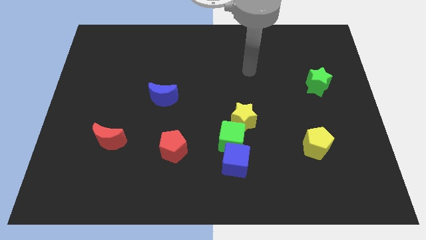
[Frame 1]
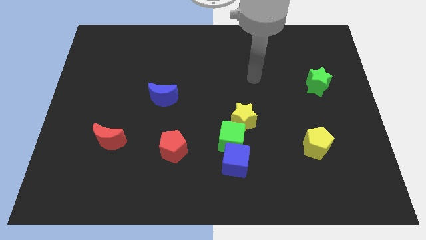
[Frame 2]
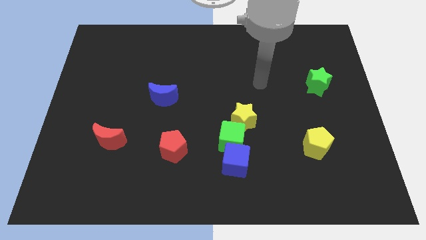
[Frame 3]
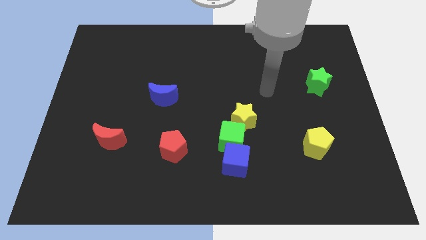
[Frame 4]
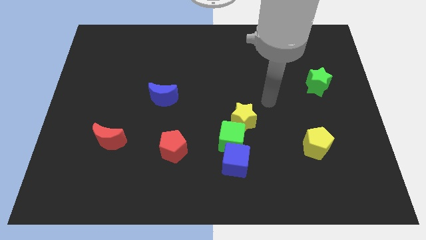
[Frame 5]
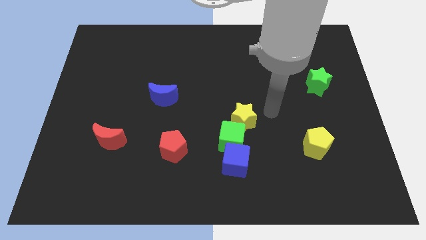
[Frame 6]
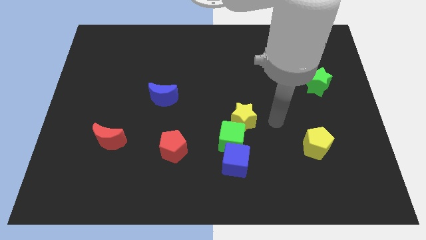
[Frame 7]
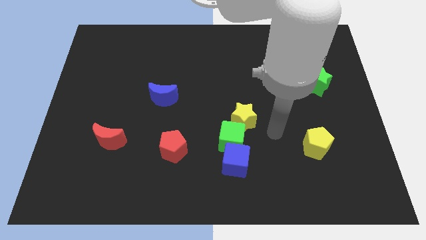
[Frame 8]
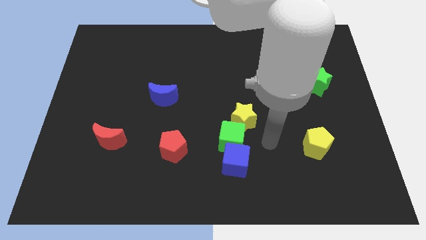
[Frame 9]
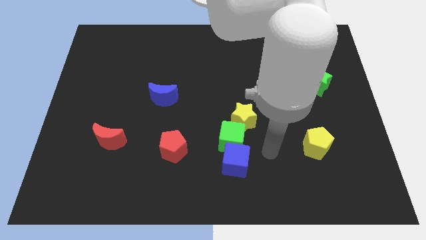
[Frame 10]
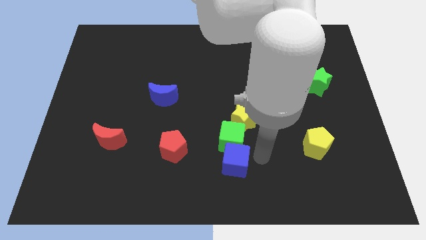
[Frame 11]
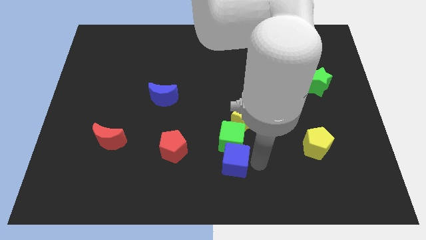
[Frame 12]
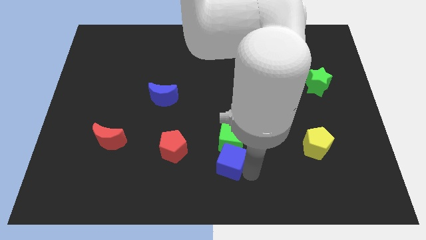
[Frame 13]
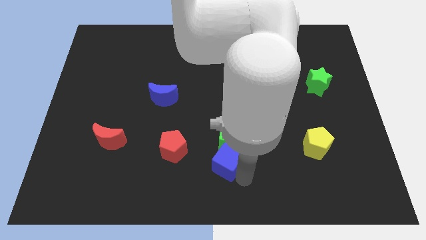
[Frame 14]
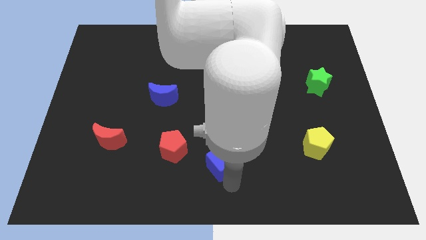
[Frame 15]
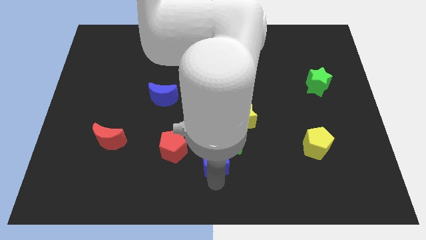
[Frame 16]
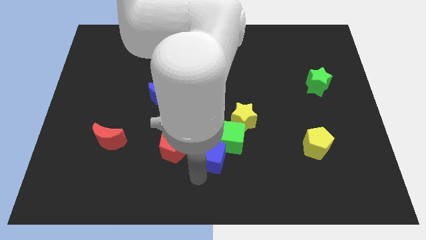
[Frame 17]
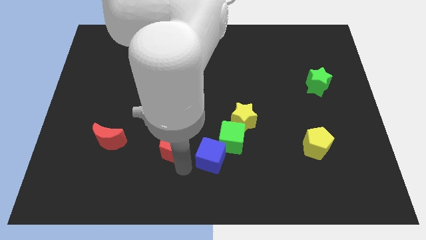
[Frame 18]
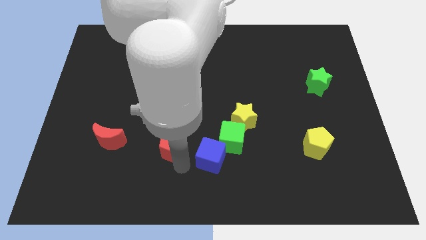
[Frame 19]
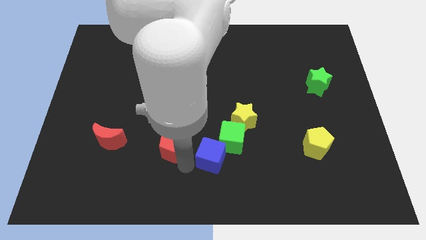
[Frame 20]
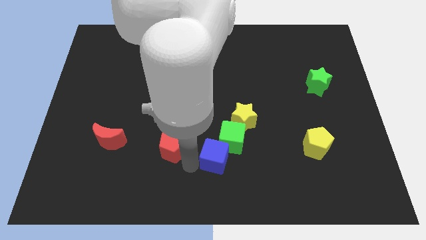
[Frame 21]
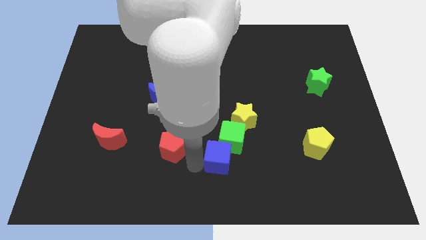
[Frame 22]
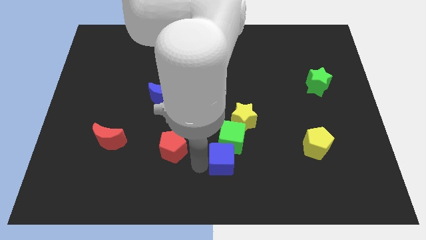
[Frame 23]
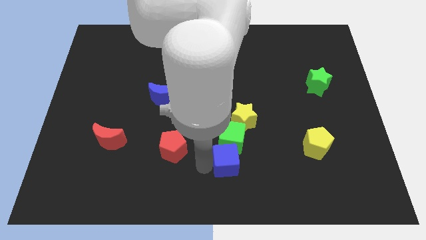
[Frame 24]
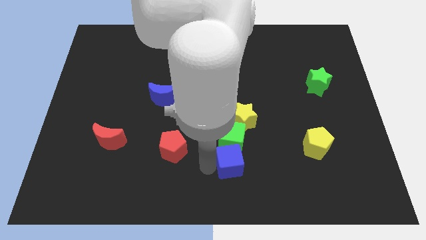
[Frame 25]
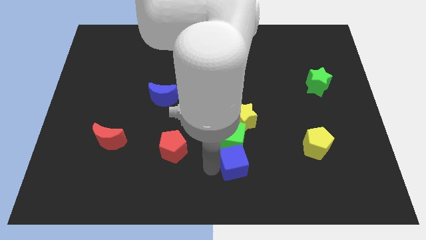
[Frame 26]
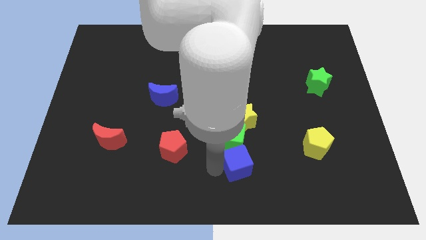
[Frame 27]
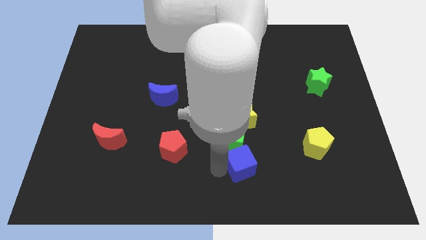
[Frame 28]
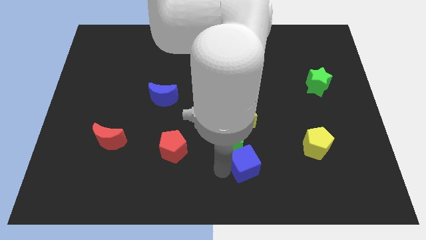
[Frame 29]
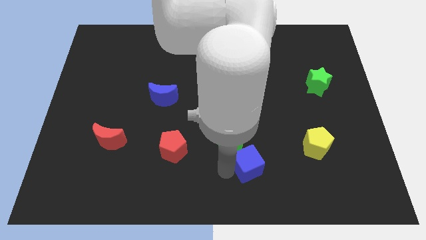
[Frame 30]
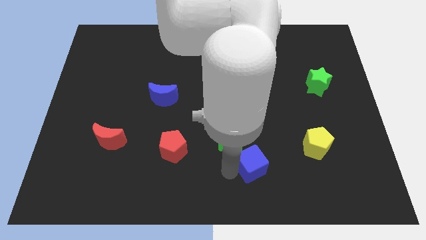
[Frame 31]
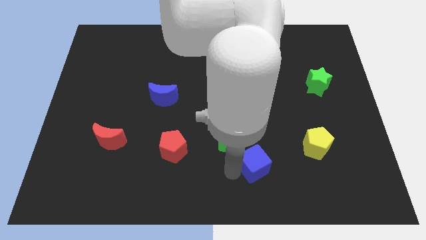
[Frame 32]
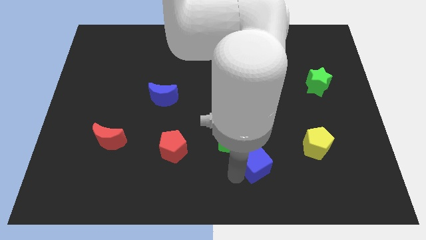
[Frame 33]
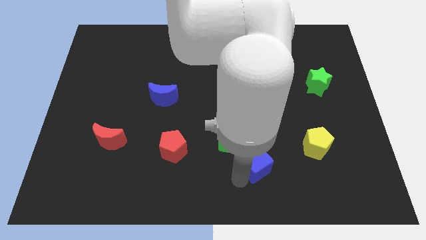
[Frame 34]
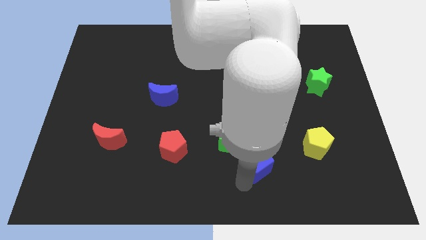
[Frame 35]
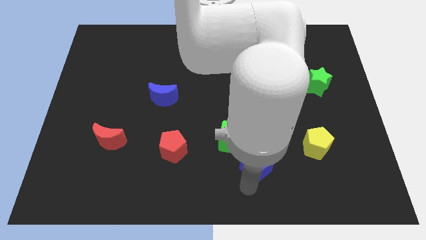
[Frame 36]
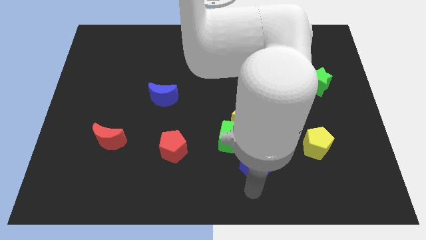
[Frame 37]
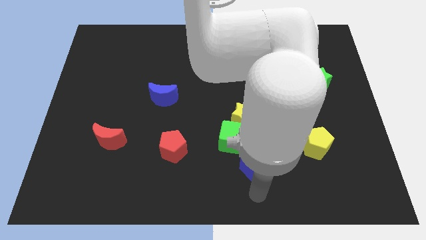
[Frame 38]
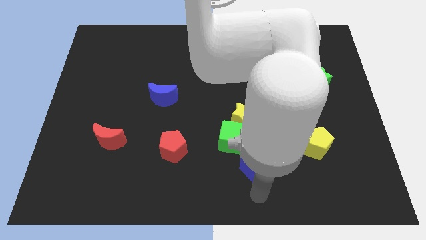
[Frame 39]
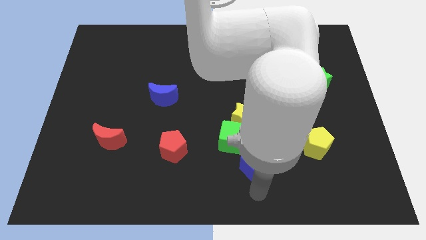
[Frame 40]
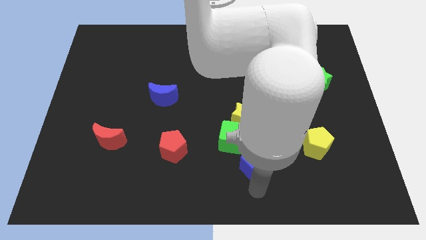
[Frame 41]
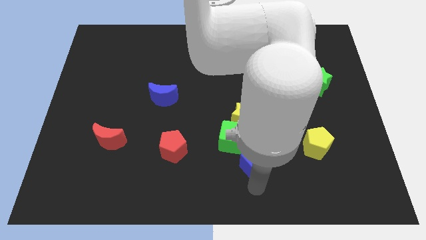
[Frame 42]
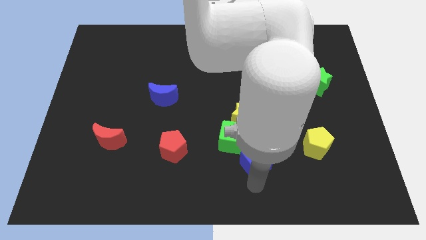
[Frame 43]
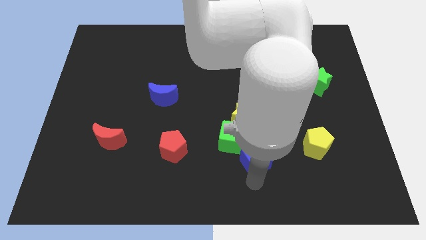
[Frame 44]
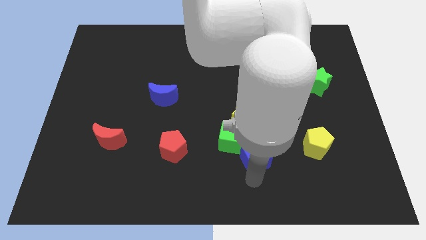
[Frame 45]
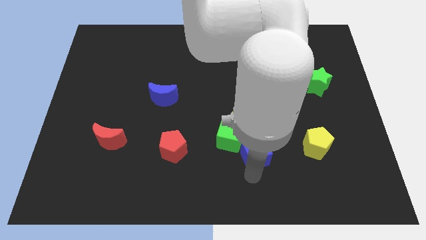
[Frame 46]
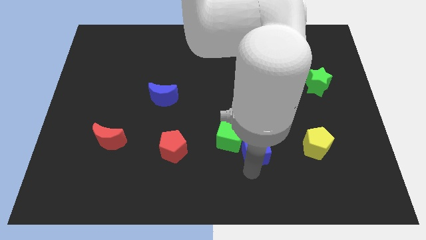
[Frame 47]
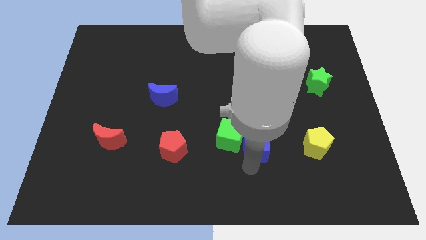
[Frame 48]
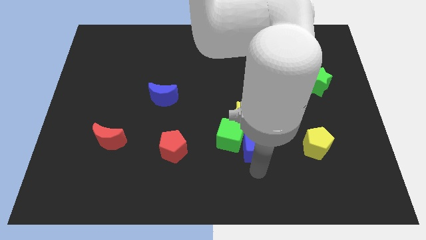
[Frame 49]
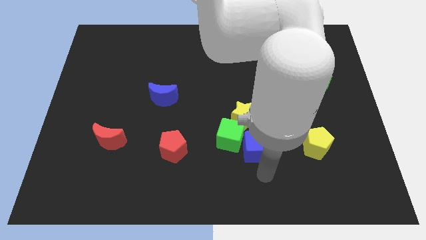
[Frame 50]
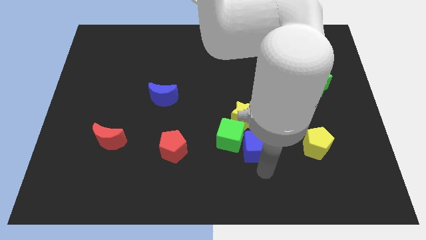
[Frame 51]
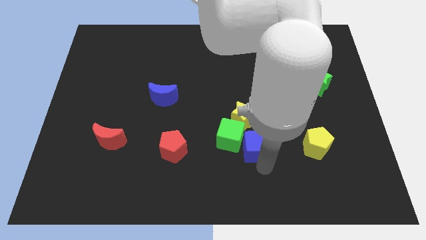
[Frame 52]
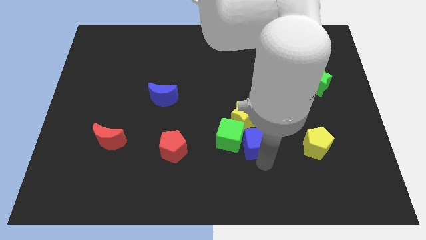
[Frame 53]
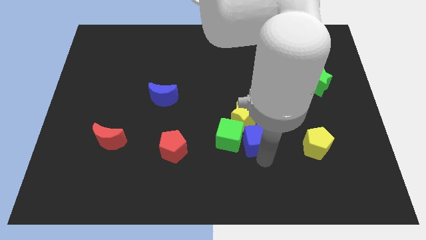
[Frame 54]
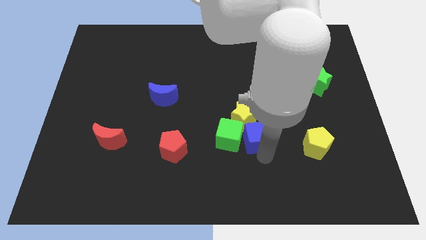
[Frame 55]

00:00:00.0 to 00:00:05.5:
put the blue cube towards the yellow star

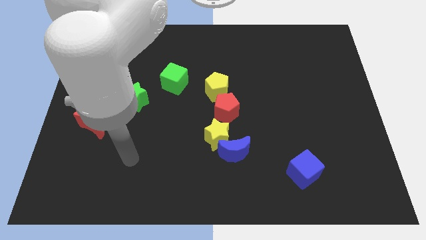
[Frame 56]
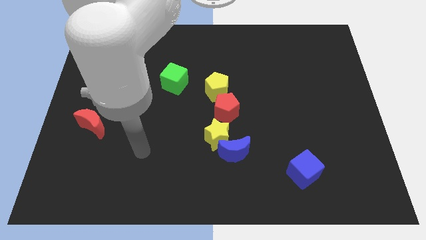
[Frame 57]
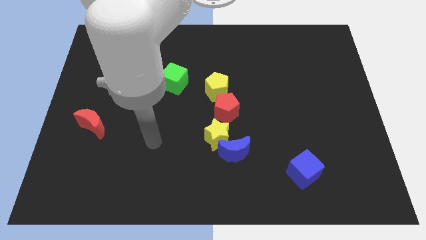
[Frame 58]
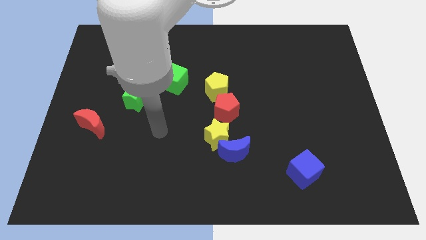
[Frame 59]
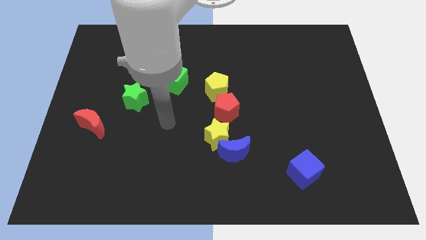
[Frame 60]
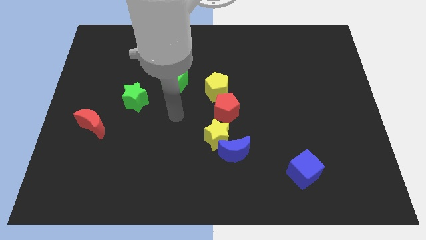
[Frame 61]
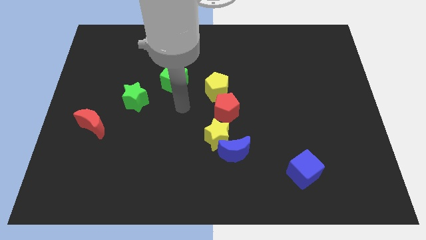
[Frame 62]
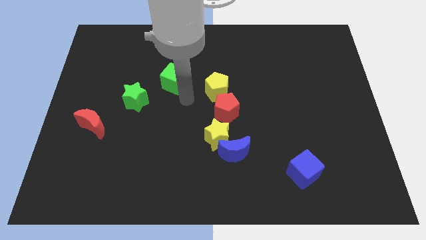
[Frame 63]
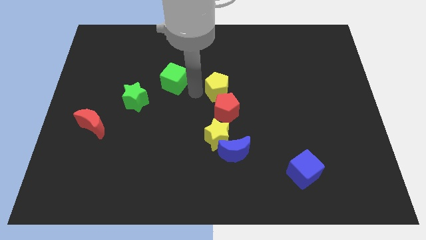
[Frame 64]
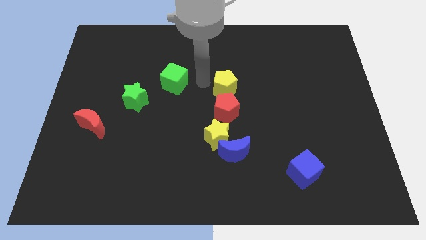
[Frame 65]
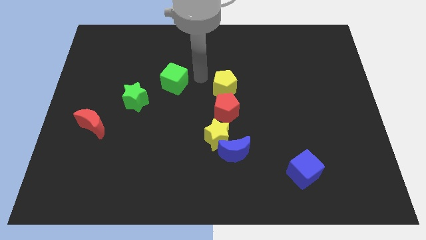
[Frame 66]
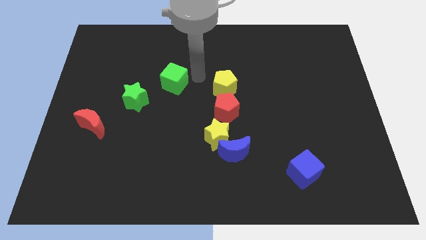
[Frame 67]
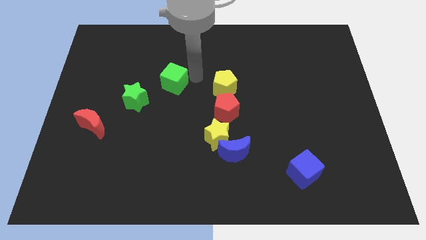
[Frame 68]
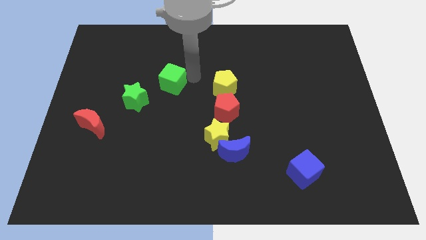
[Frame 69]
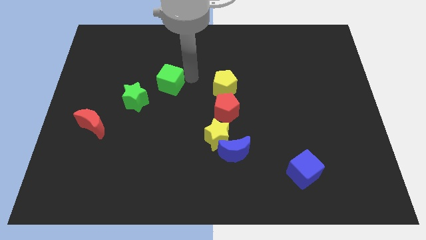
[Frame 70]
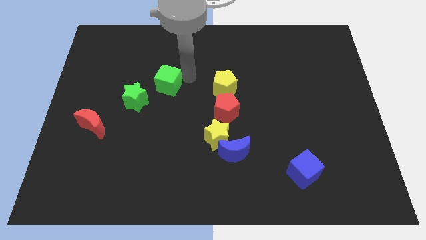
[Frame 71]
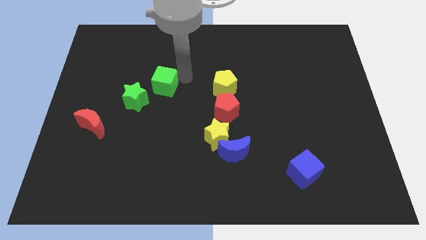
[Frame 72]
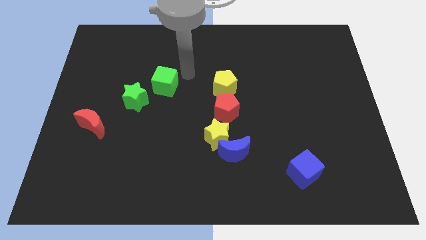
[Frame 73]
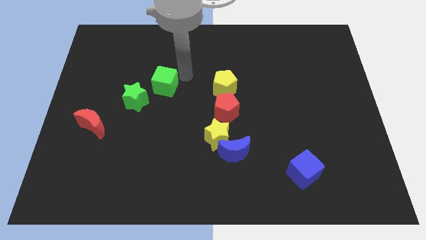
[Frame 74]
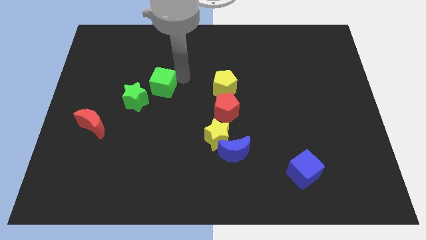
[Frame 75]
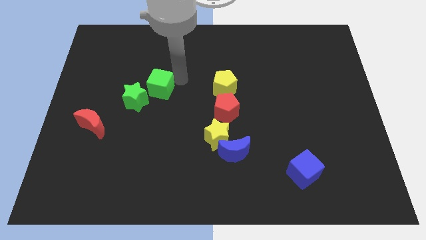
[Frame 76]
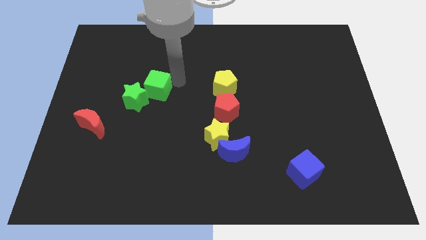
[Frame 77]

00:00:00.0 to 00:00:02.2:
put the green cube towards the green star

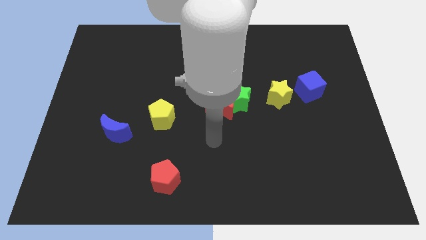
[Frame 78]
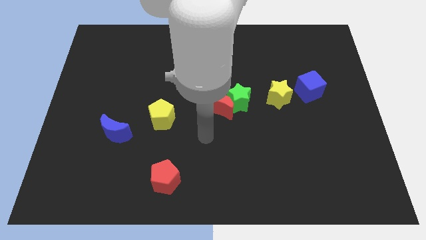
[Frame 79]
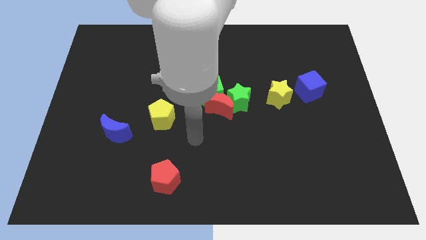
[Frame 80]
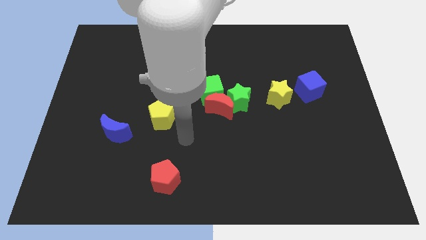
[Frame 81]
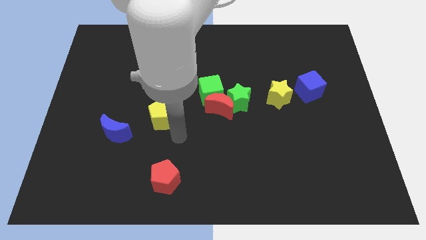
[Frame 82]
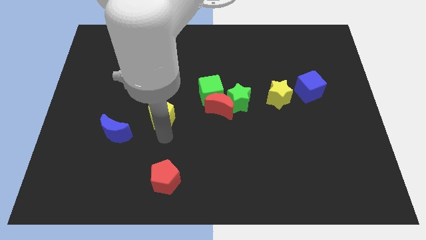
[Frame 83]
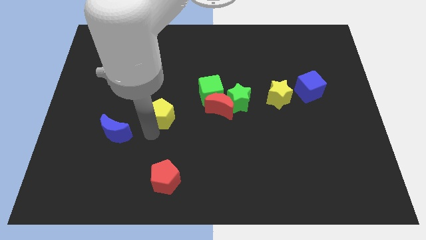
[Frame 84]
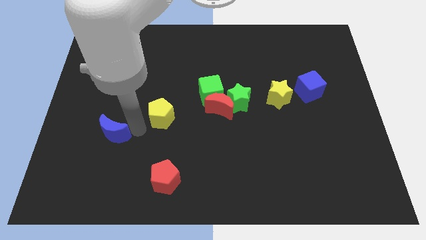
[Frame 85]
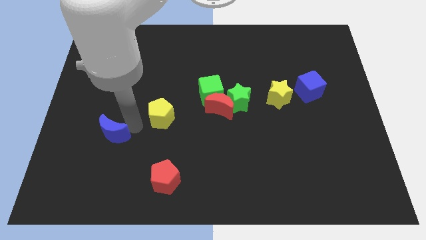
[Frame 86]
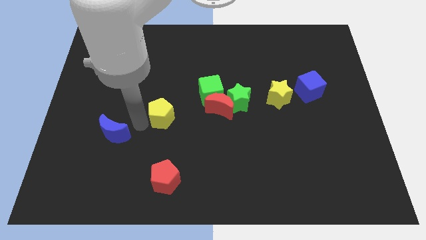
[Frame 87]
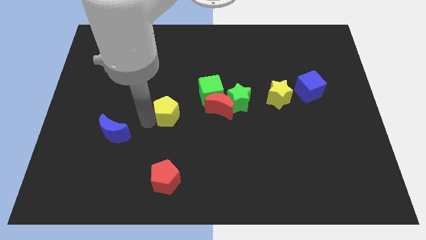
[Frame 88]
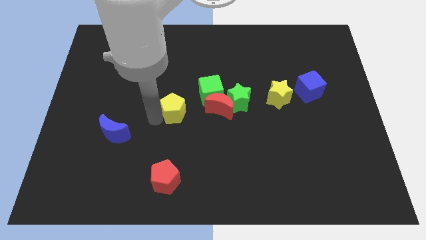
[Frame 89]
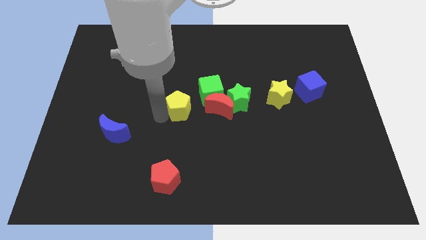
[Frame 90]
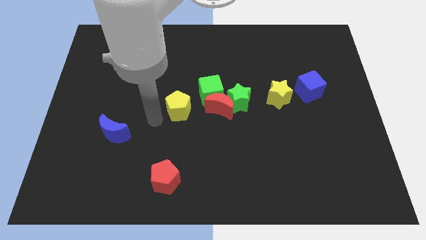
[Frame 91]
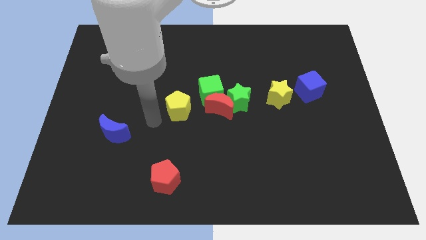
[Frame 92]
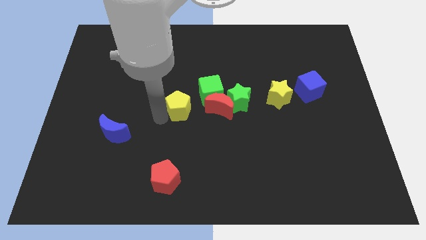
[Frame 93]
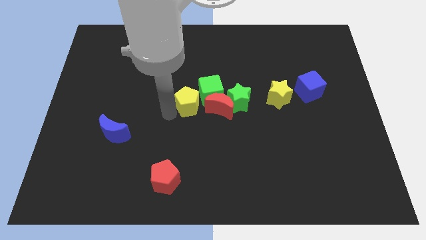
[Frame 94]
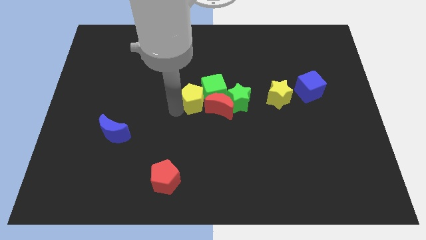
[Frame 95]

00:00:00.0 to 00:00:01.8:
push the yellow pentagon to the green cube
